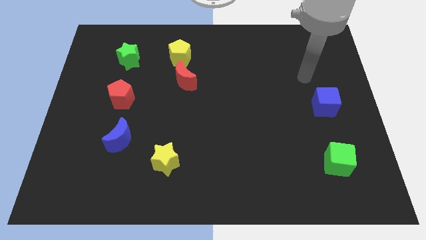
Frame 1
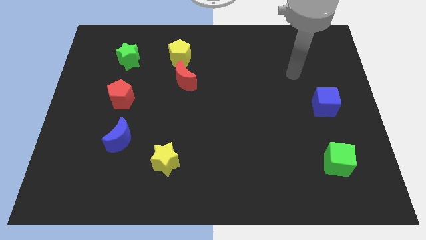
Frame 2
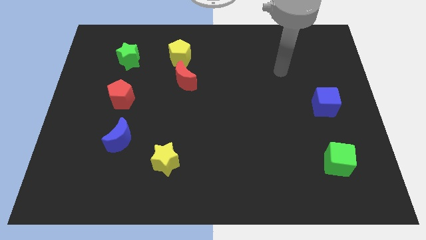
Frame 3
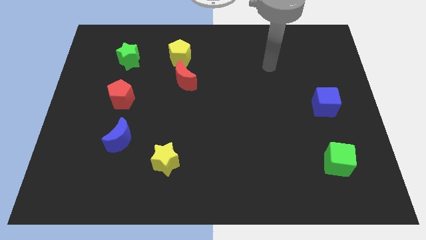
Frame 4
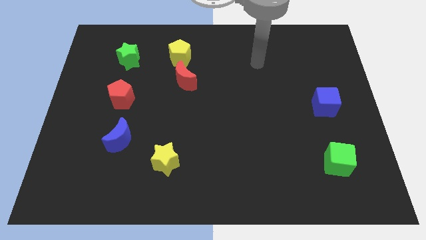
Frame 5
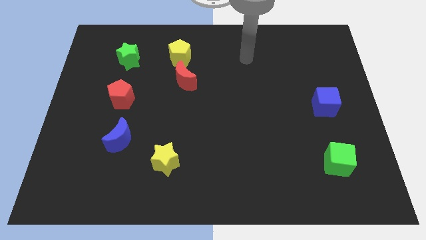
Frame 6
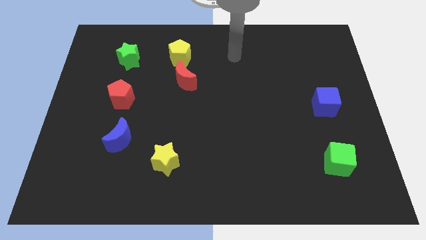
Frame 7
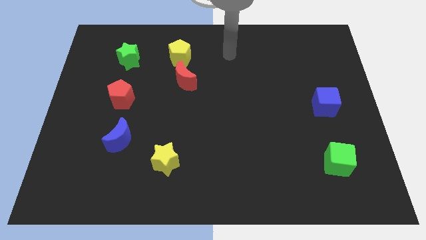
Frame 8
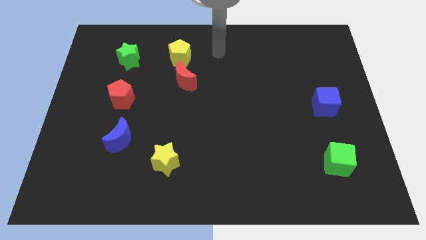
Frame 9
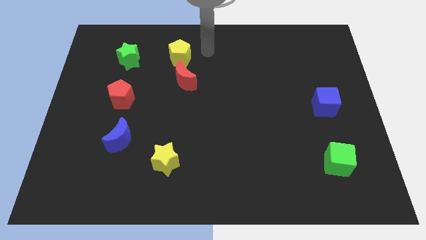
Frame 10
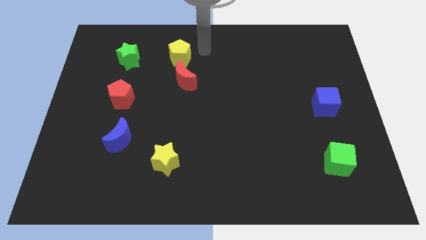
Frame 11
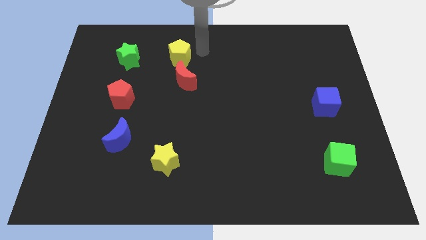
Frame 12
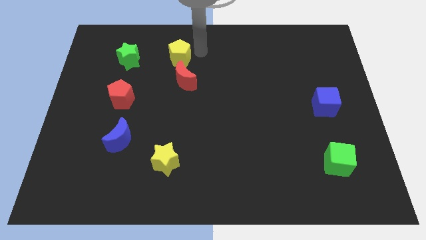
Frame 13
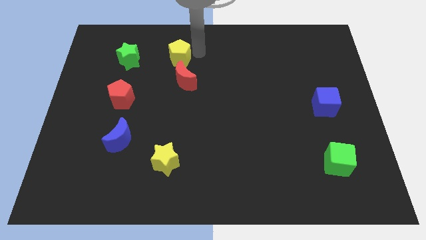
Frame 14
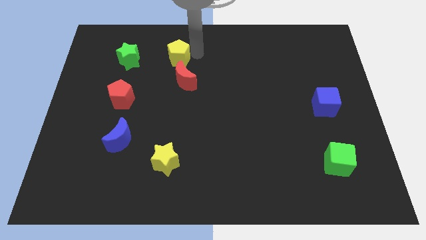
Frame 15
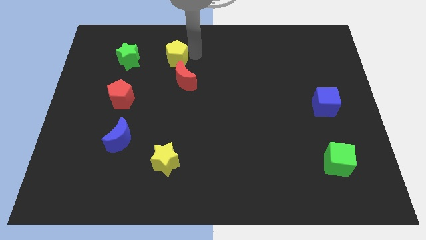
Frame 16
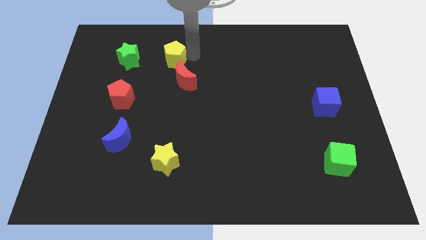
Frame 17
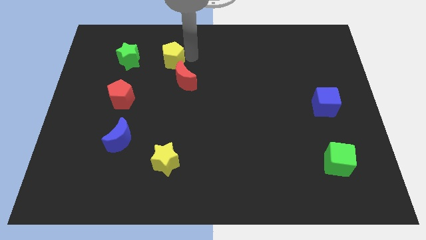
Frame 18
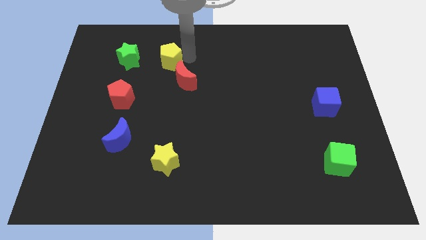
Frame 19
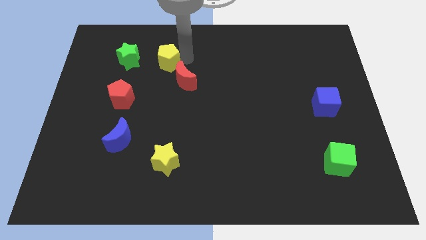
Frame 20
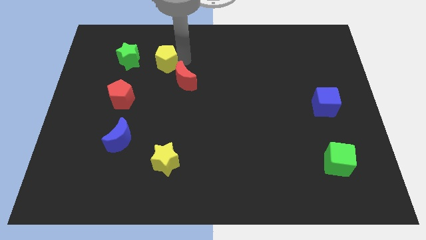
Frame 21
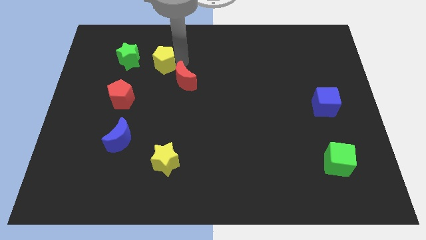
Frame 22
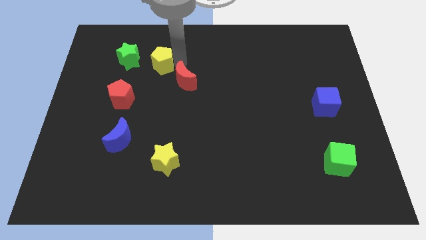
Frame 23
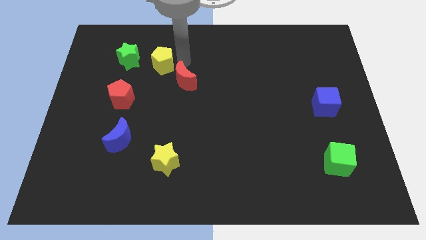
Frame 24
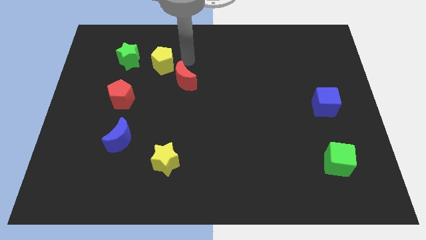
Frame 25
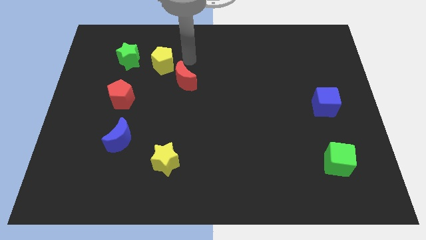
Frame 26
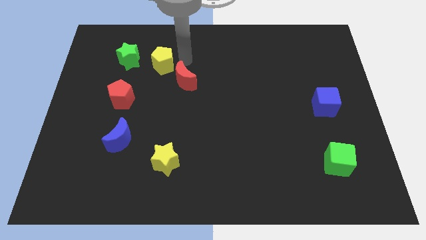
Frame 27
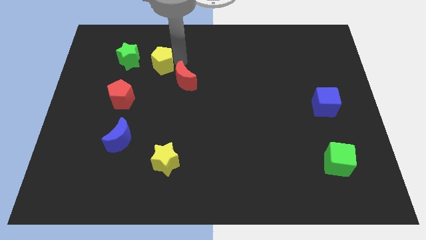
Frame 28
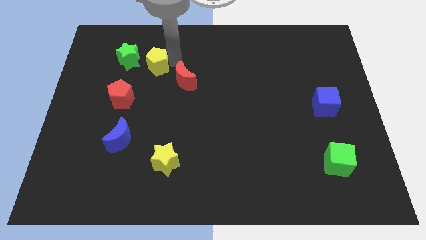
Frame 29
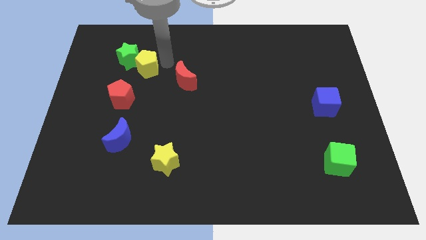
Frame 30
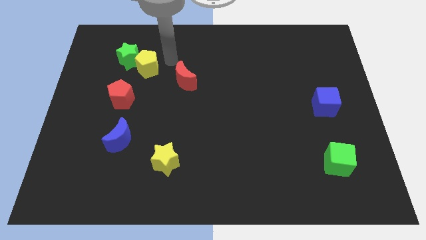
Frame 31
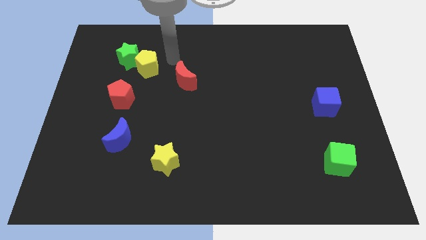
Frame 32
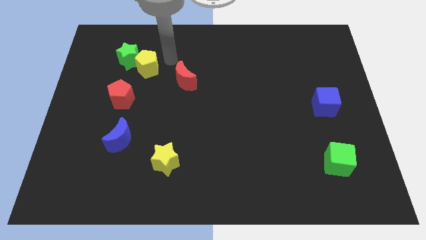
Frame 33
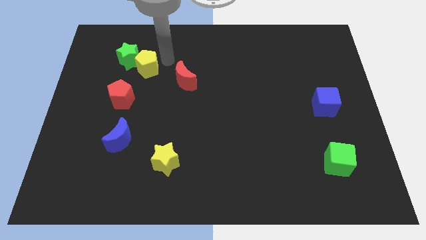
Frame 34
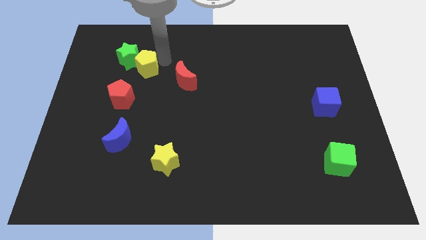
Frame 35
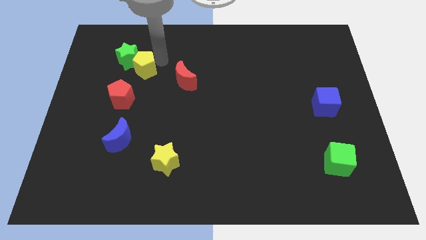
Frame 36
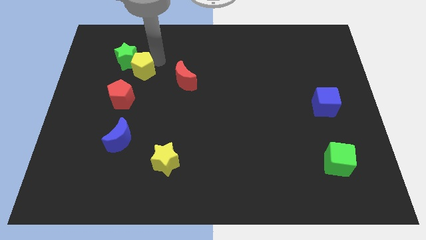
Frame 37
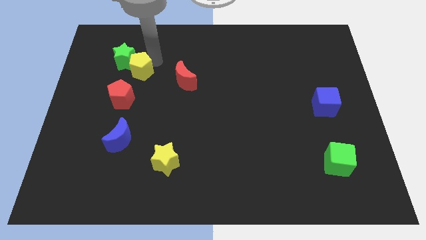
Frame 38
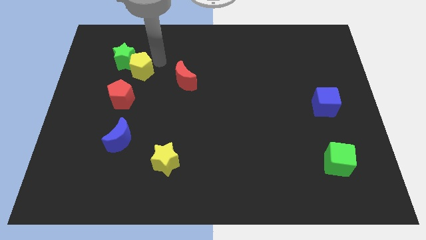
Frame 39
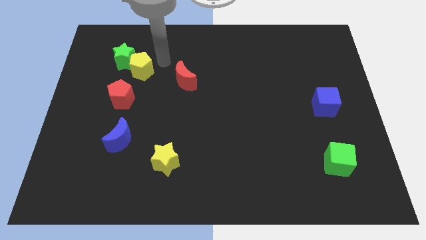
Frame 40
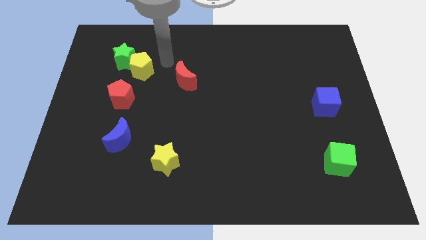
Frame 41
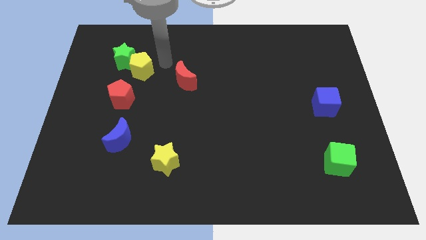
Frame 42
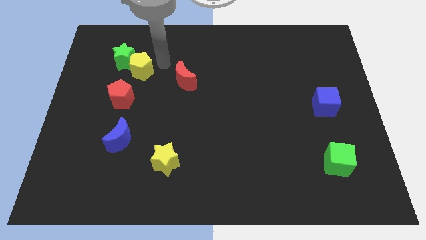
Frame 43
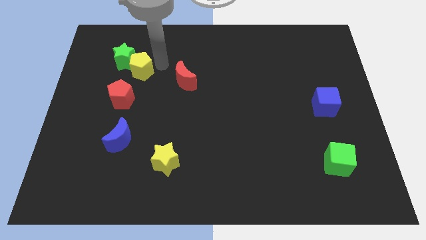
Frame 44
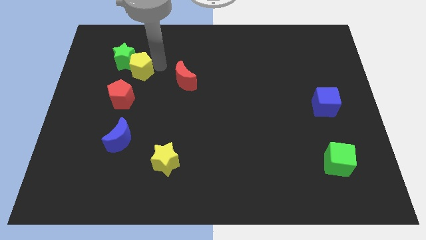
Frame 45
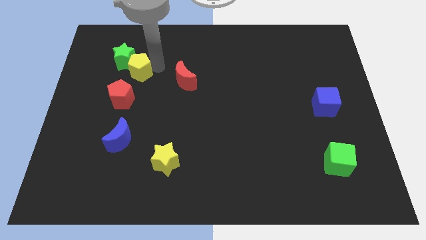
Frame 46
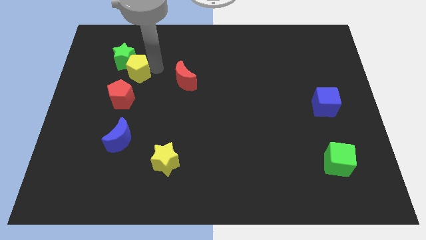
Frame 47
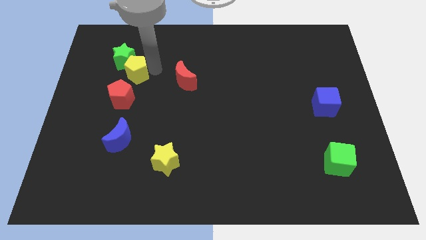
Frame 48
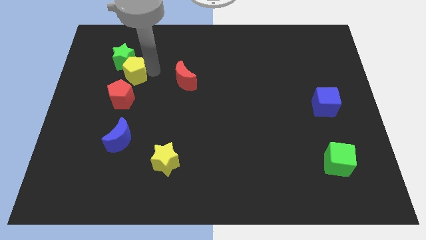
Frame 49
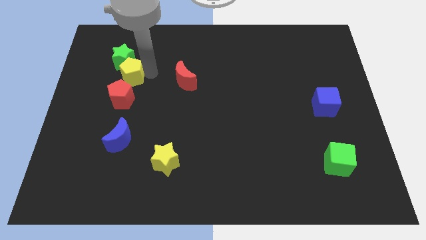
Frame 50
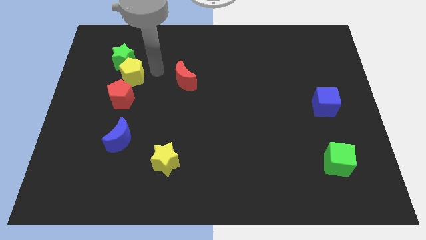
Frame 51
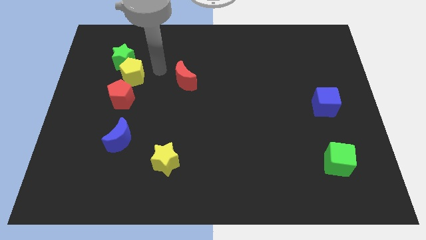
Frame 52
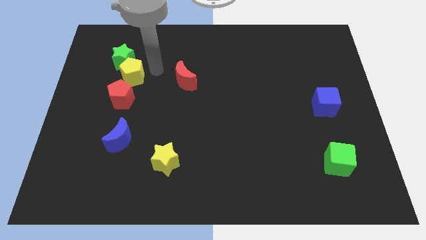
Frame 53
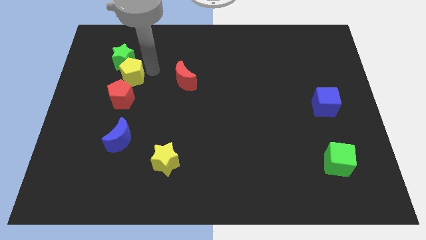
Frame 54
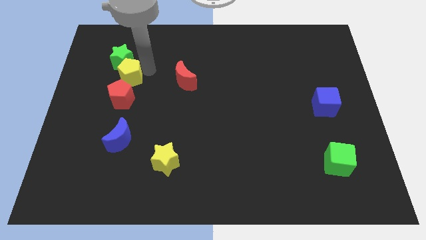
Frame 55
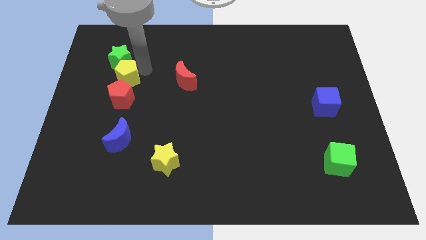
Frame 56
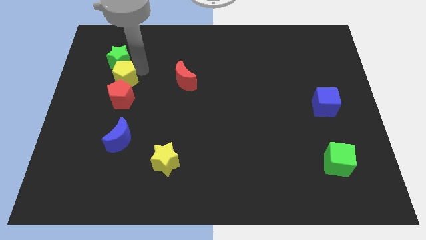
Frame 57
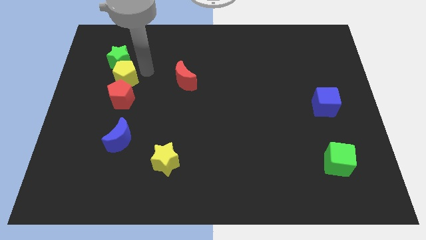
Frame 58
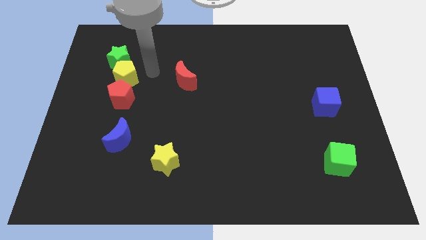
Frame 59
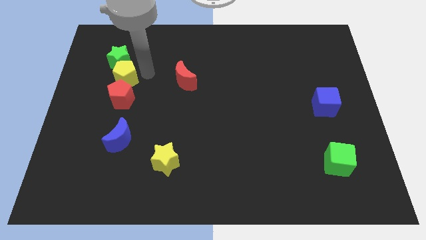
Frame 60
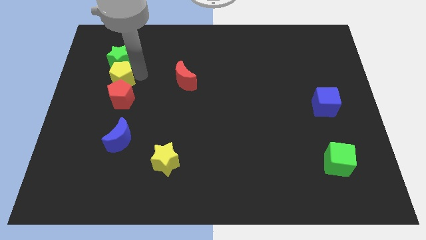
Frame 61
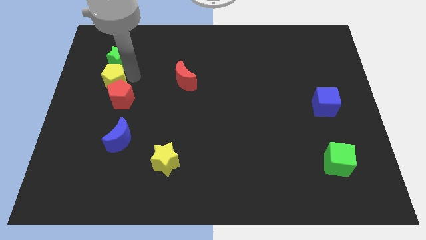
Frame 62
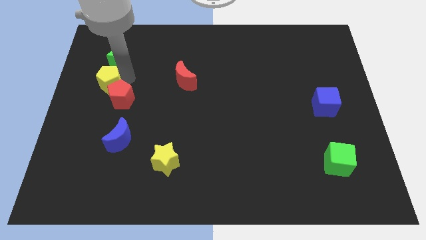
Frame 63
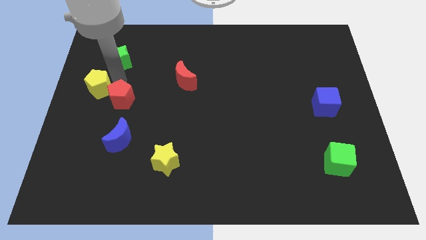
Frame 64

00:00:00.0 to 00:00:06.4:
move the yellow pentagon to the left side

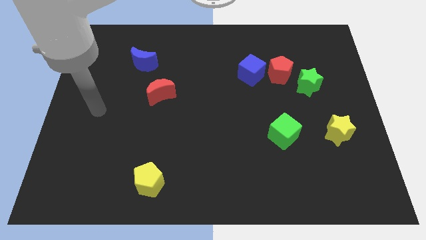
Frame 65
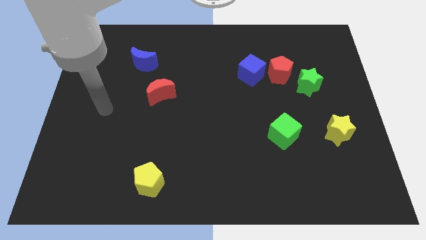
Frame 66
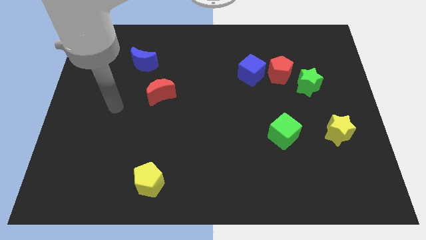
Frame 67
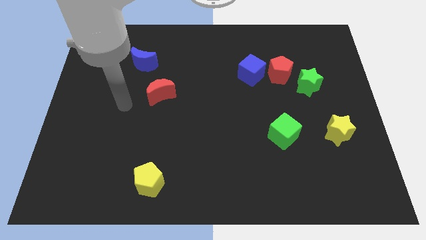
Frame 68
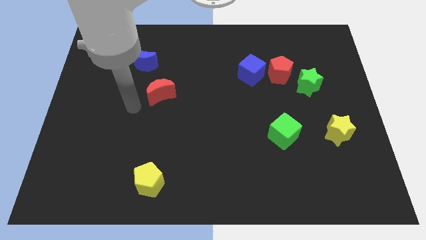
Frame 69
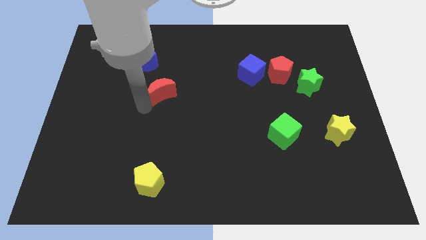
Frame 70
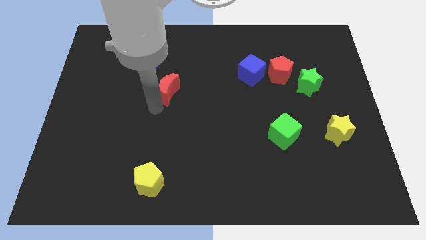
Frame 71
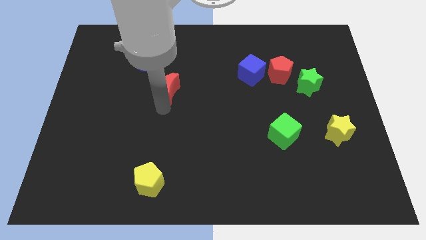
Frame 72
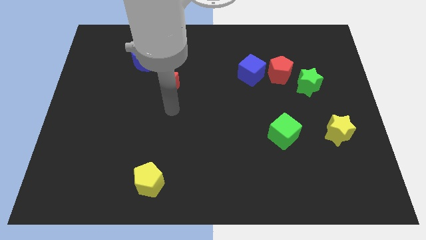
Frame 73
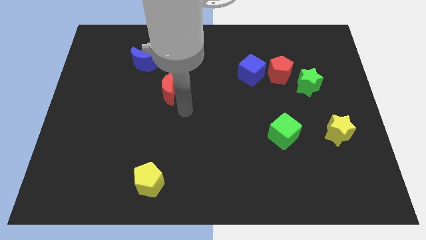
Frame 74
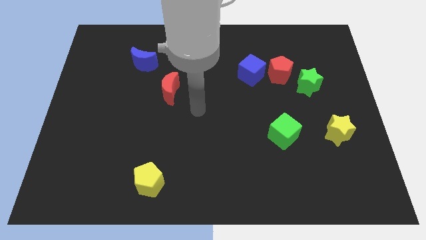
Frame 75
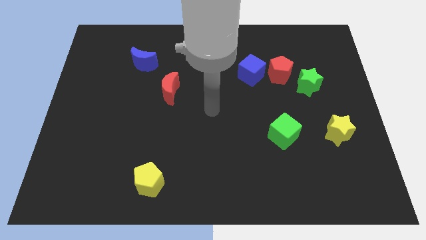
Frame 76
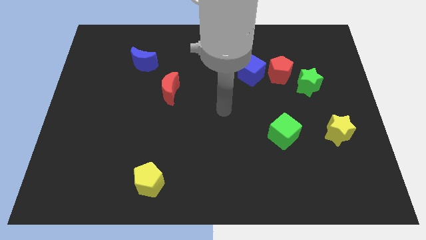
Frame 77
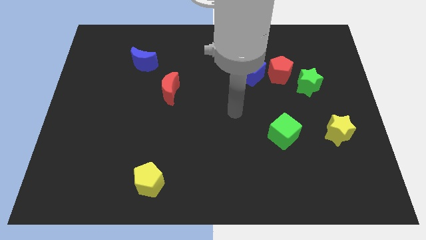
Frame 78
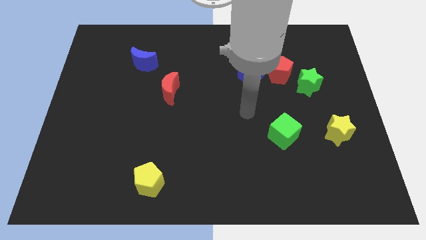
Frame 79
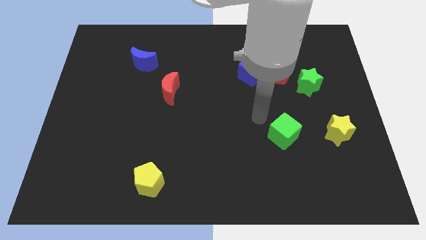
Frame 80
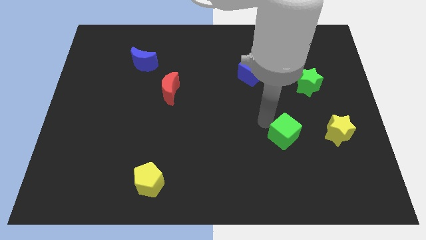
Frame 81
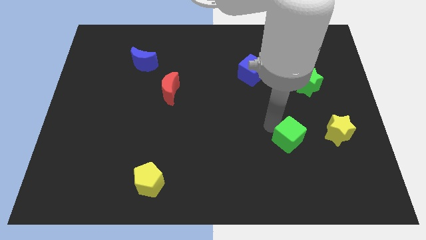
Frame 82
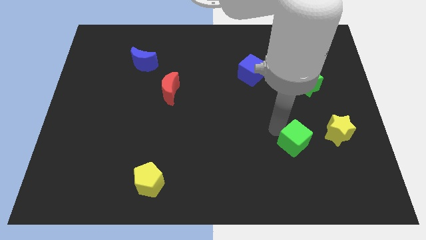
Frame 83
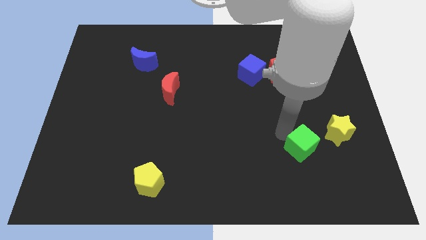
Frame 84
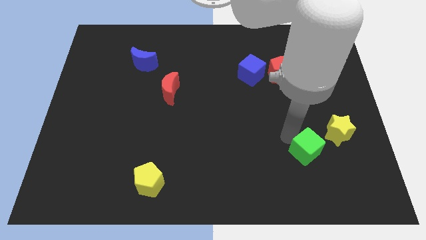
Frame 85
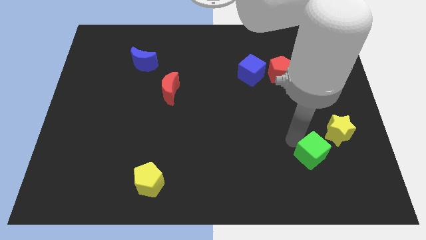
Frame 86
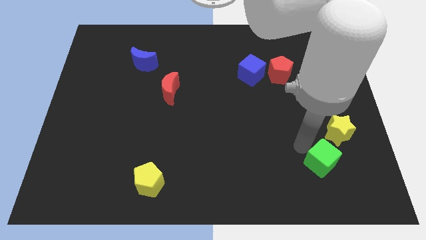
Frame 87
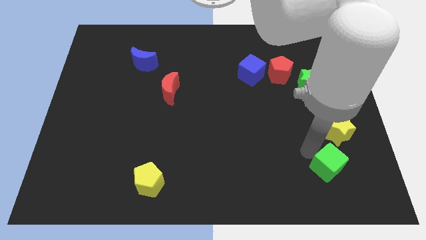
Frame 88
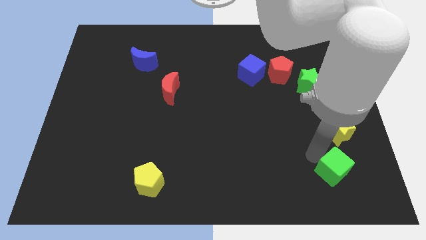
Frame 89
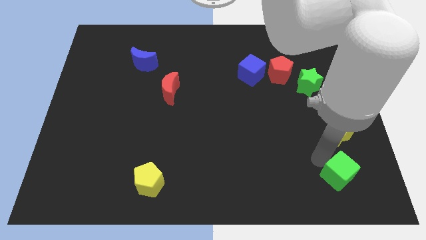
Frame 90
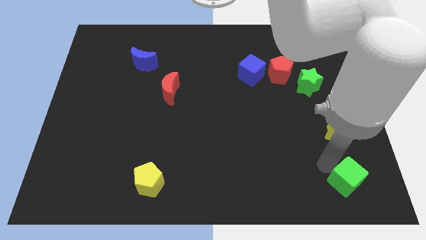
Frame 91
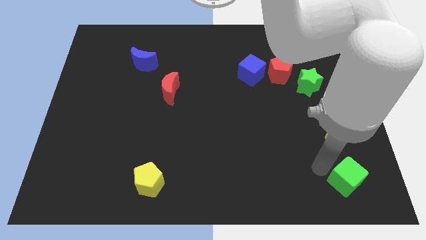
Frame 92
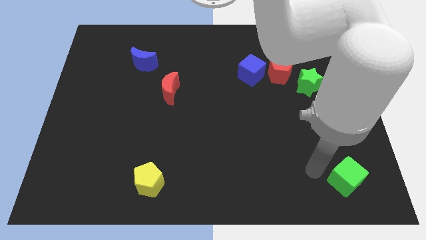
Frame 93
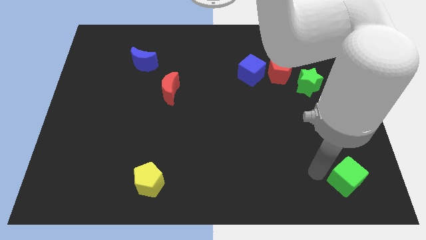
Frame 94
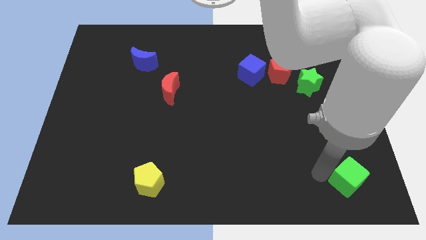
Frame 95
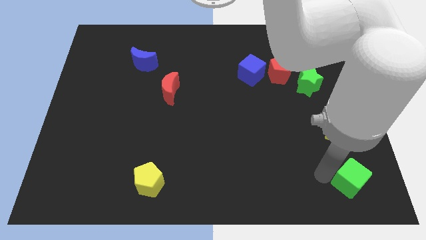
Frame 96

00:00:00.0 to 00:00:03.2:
put the green cube to the bottom right of the board
